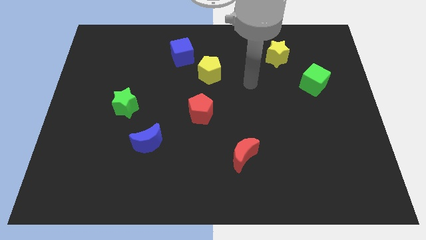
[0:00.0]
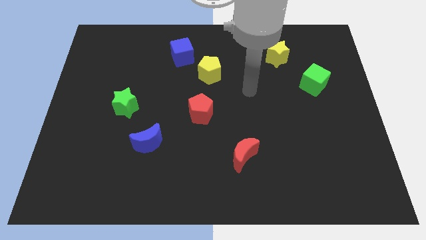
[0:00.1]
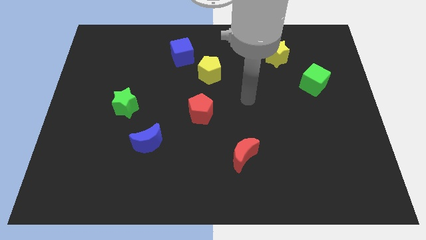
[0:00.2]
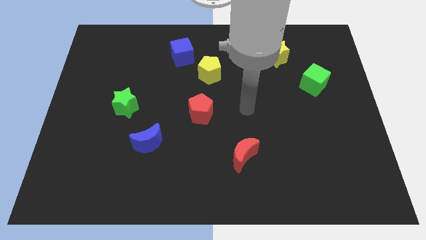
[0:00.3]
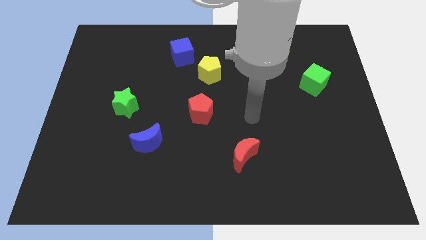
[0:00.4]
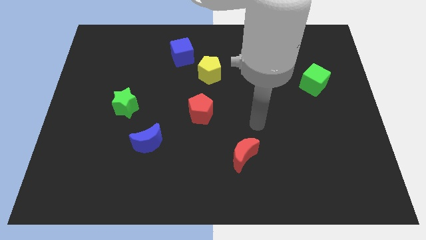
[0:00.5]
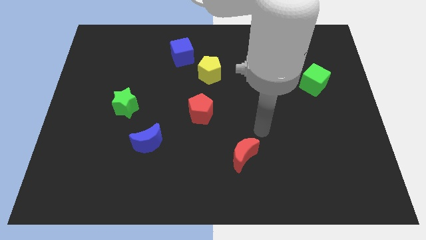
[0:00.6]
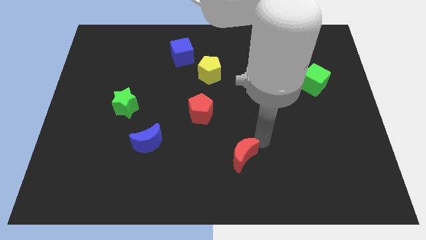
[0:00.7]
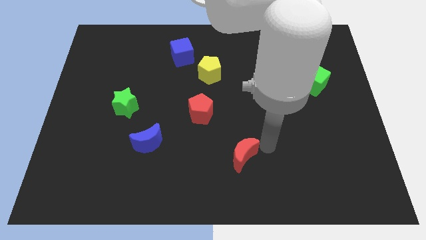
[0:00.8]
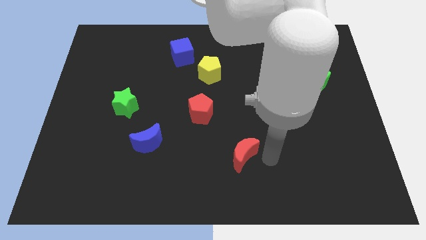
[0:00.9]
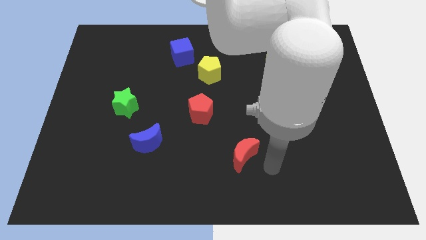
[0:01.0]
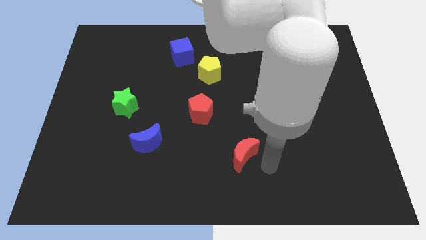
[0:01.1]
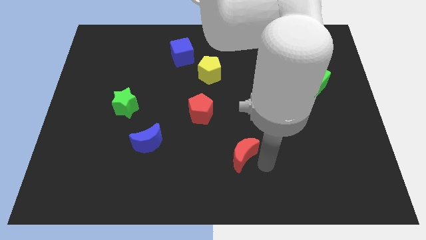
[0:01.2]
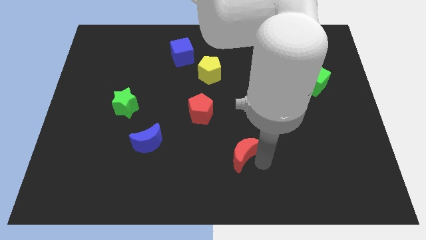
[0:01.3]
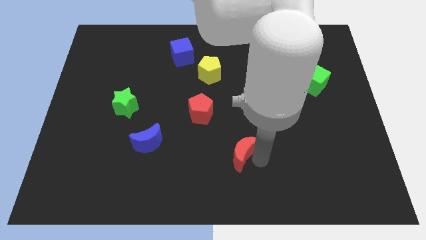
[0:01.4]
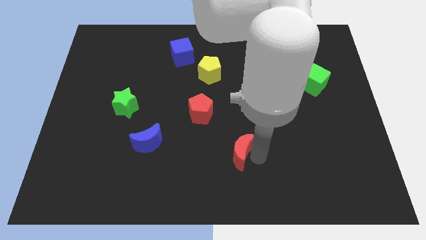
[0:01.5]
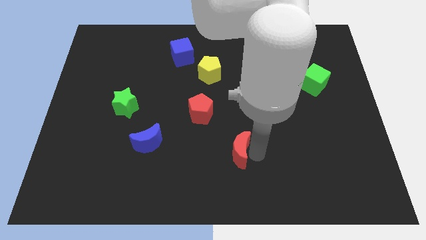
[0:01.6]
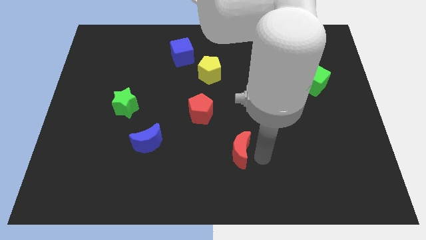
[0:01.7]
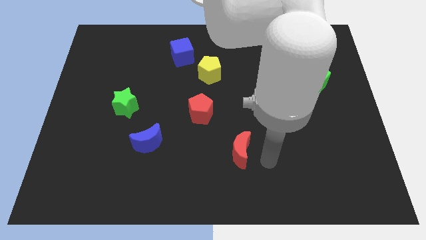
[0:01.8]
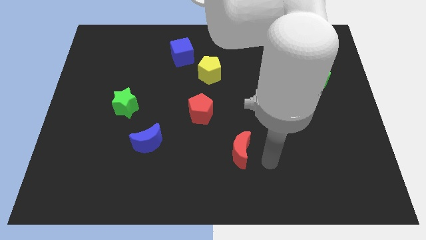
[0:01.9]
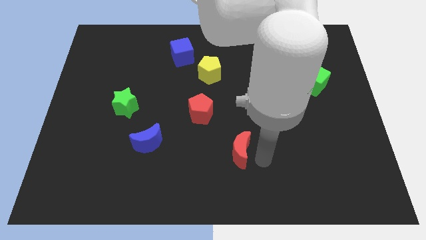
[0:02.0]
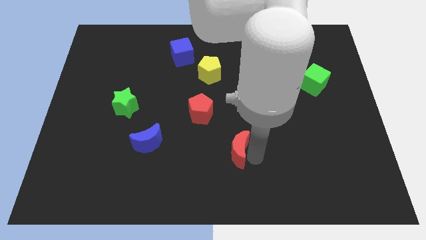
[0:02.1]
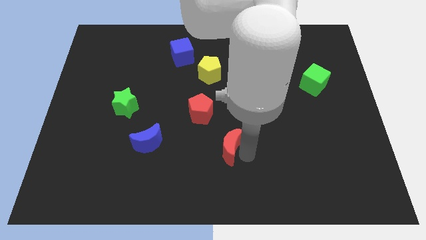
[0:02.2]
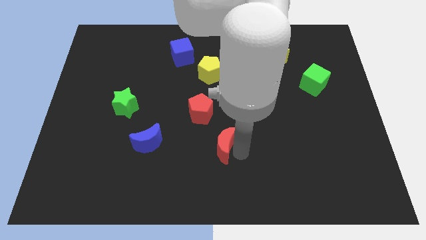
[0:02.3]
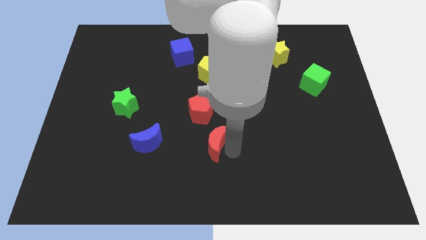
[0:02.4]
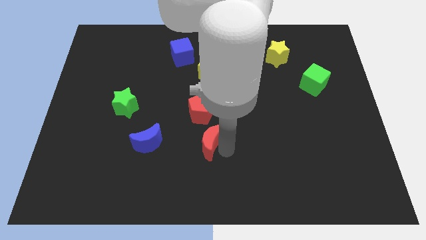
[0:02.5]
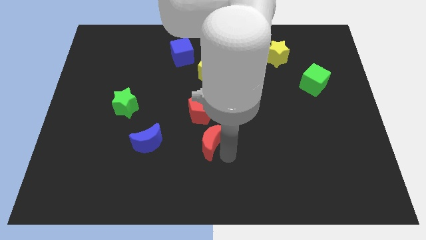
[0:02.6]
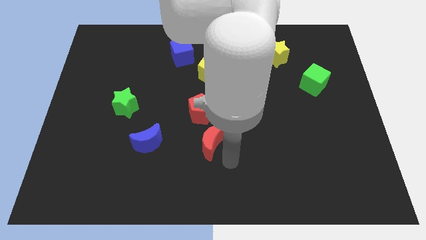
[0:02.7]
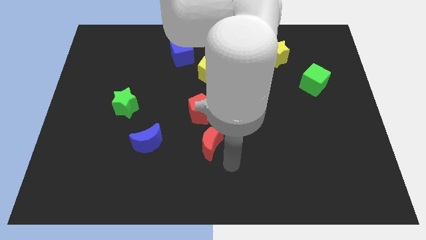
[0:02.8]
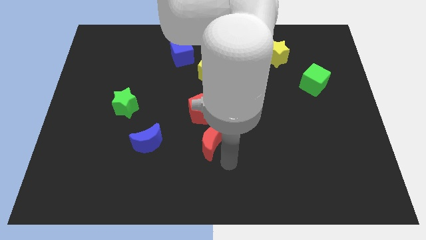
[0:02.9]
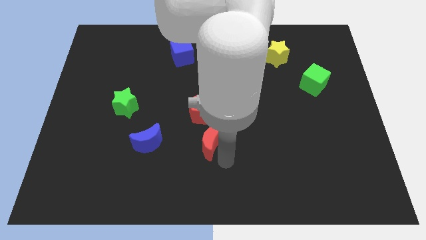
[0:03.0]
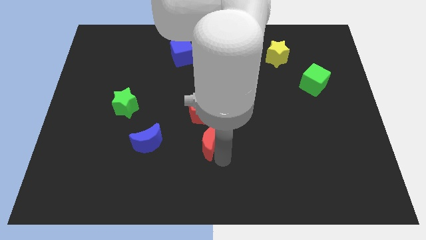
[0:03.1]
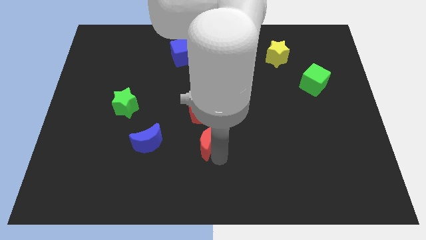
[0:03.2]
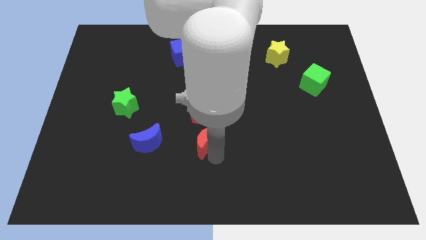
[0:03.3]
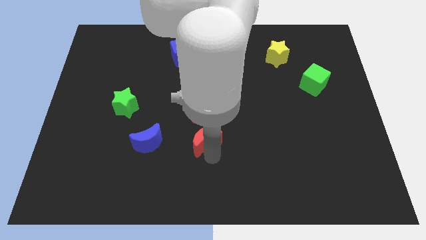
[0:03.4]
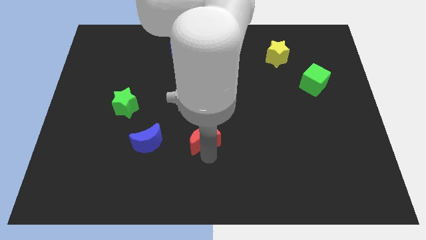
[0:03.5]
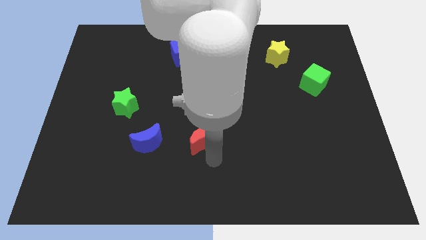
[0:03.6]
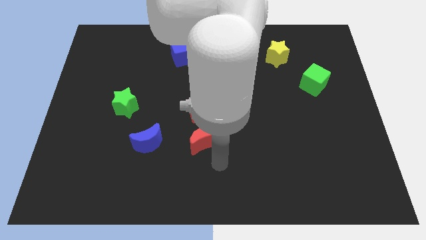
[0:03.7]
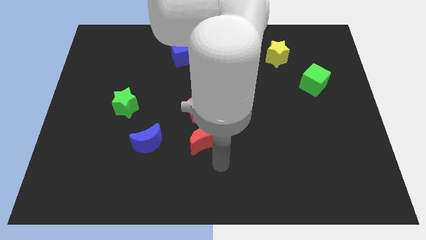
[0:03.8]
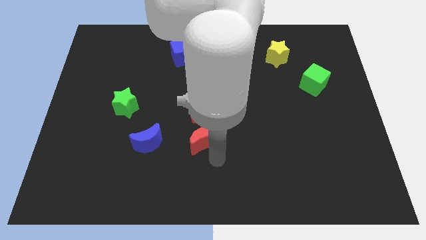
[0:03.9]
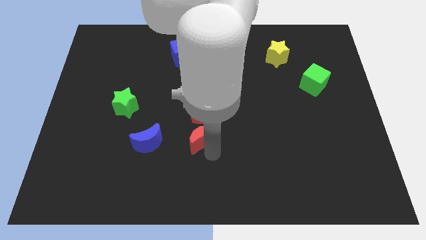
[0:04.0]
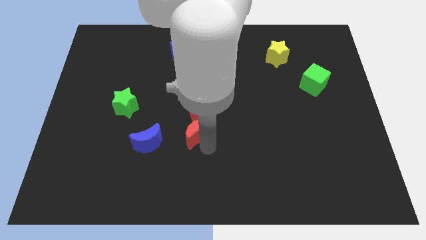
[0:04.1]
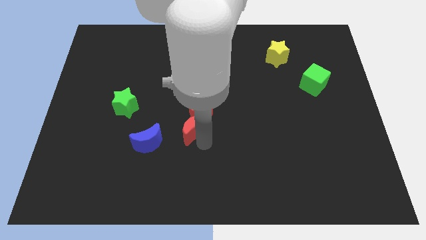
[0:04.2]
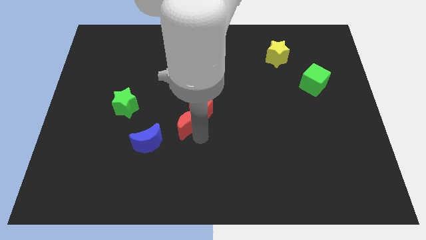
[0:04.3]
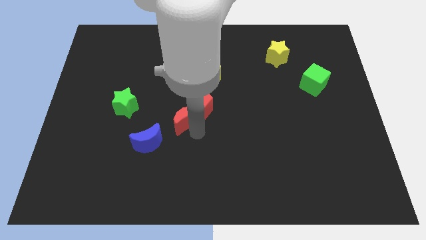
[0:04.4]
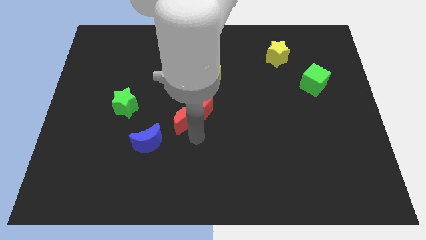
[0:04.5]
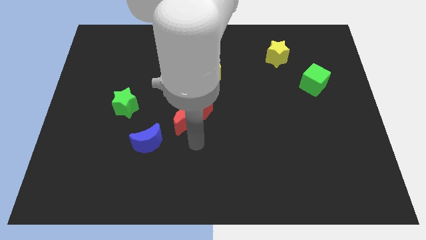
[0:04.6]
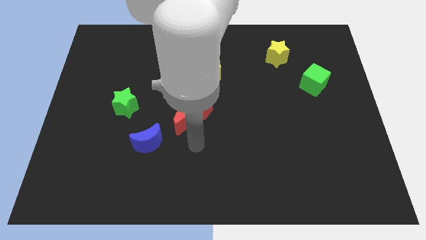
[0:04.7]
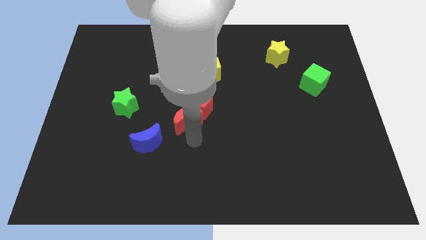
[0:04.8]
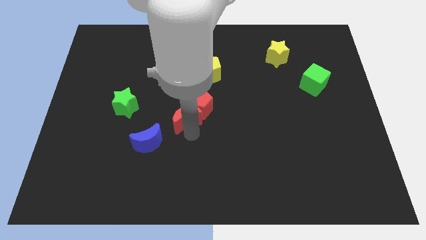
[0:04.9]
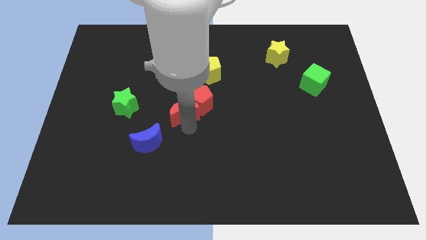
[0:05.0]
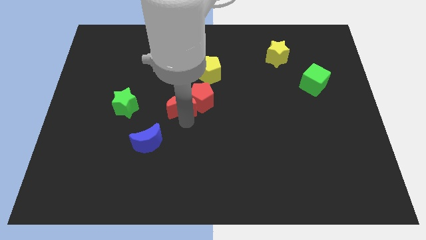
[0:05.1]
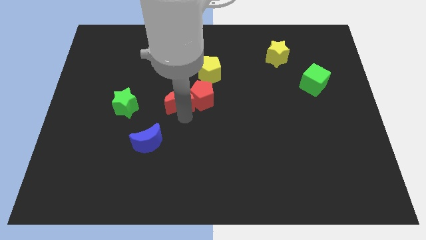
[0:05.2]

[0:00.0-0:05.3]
slide the red moon up and to the left

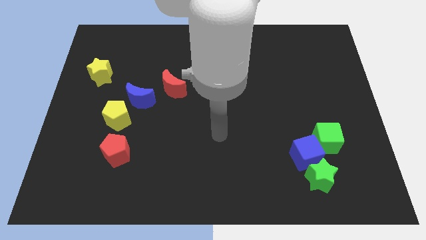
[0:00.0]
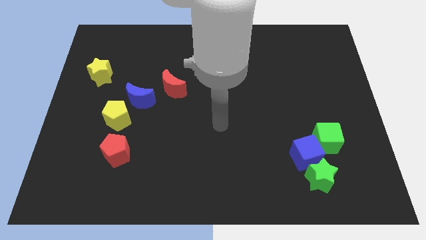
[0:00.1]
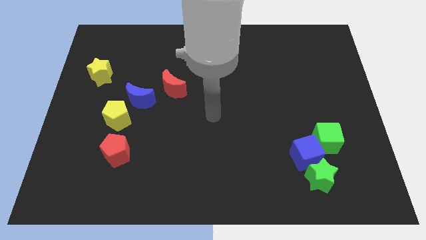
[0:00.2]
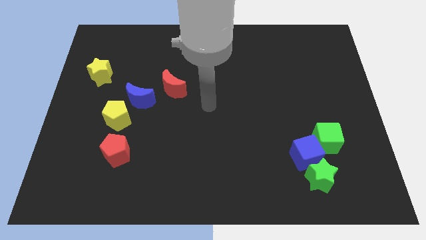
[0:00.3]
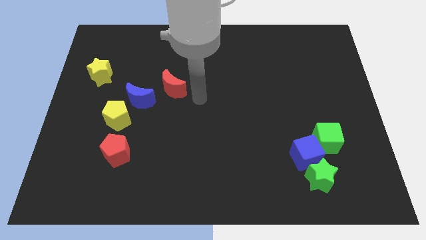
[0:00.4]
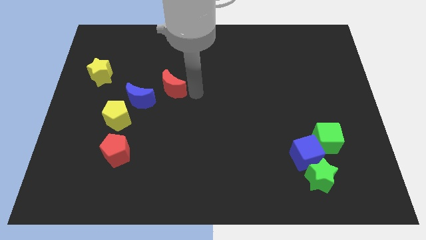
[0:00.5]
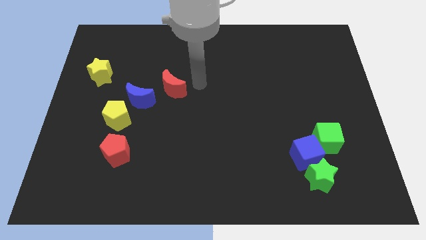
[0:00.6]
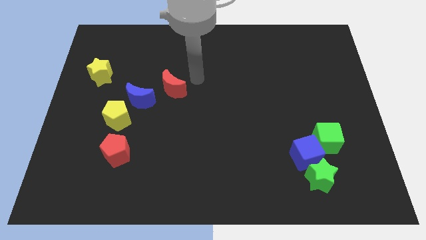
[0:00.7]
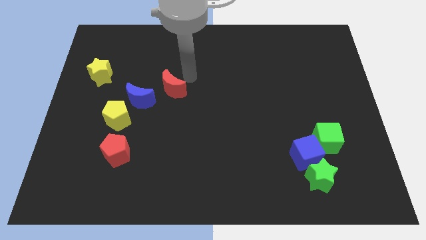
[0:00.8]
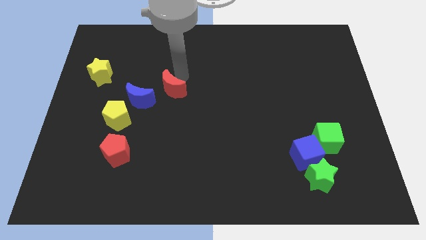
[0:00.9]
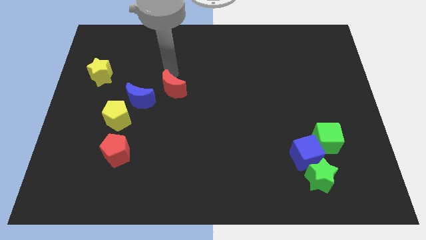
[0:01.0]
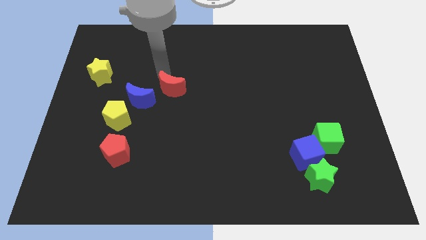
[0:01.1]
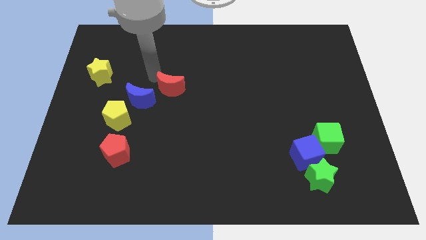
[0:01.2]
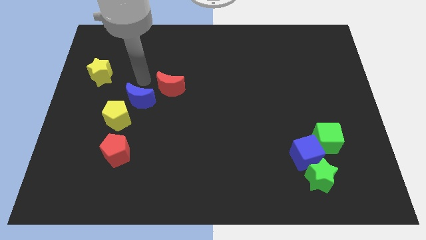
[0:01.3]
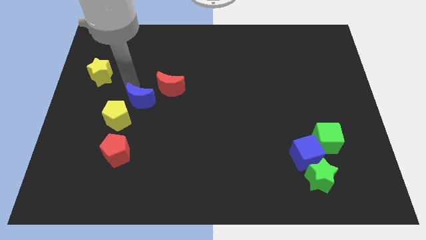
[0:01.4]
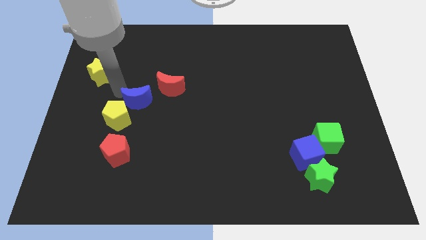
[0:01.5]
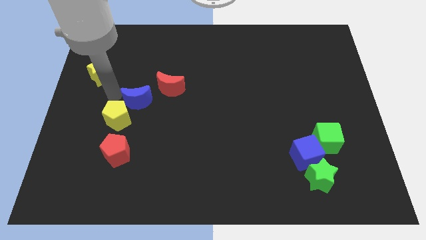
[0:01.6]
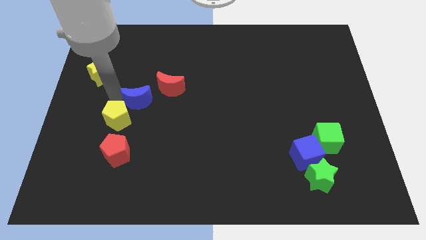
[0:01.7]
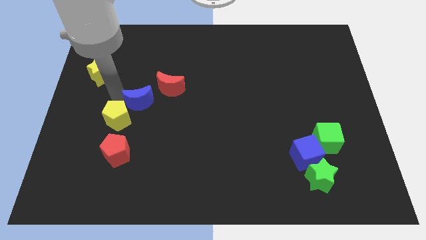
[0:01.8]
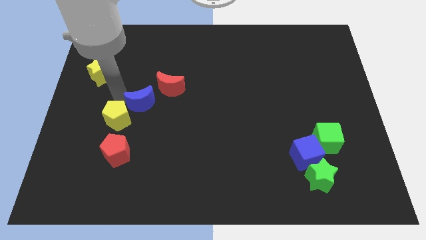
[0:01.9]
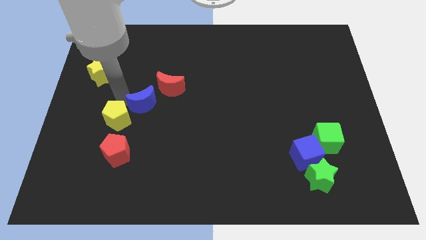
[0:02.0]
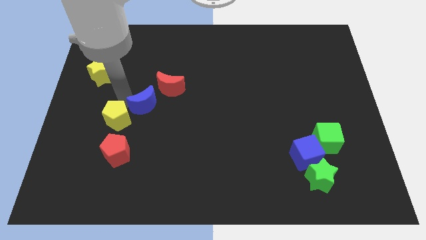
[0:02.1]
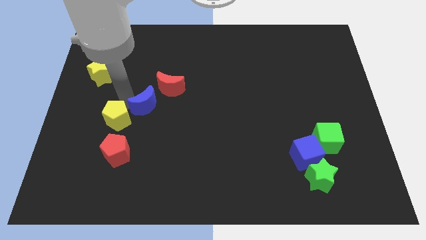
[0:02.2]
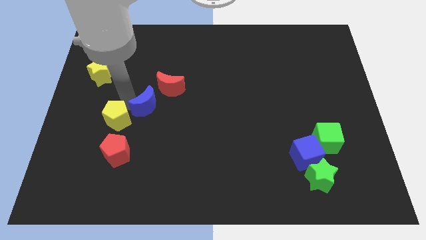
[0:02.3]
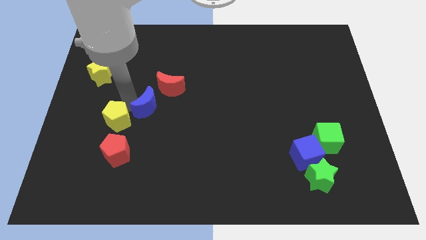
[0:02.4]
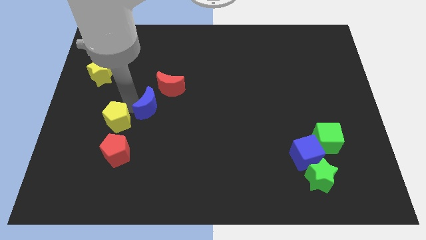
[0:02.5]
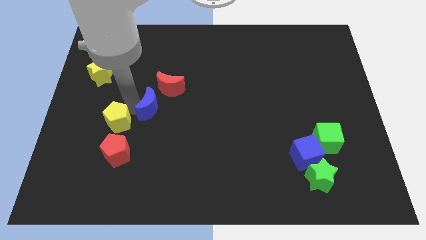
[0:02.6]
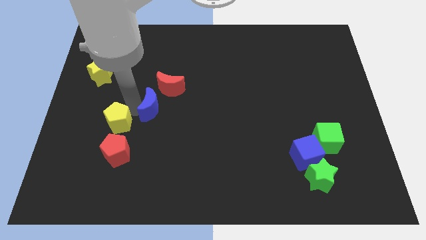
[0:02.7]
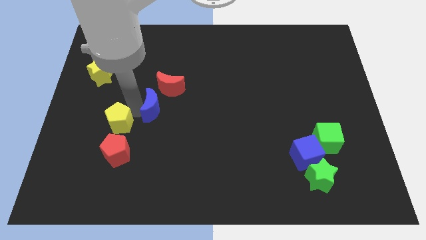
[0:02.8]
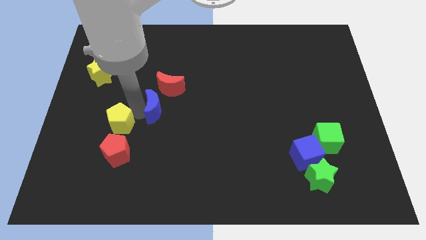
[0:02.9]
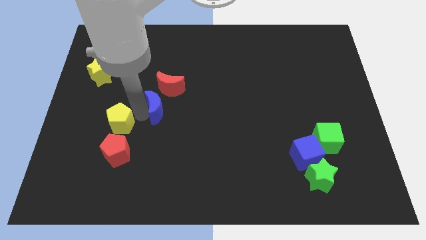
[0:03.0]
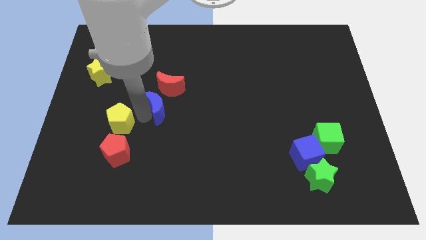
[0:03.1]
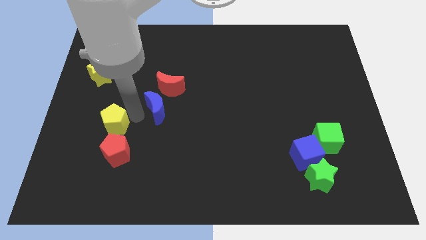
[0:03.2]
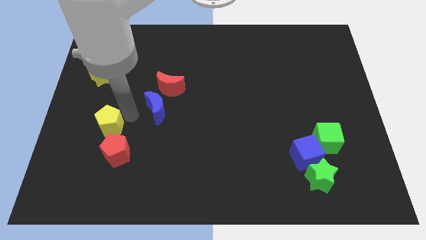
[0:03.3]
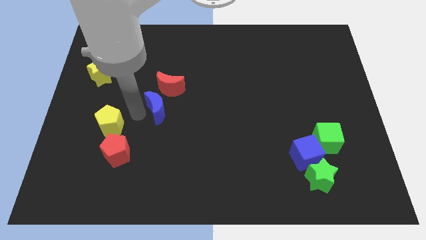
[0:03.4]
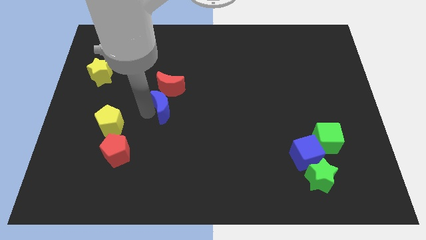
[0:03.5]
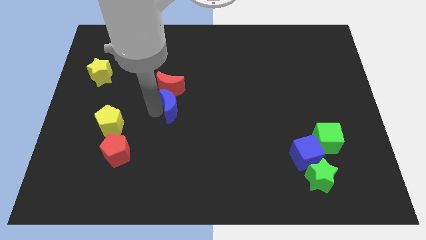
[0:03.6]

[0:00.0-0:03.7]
slide the blue moon a little right
